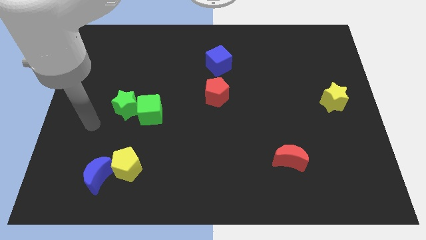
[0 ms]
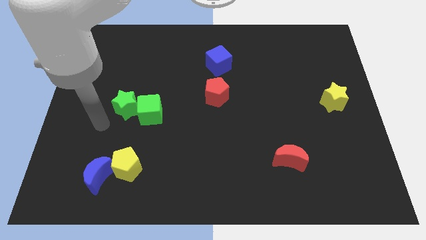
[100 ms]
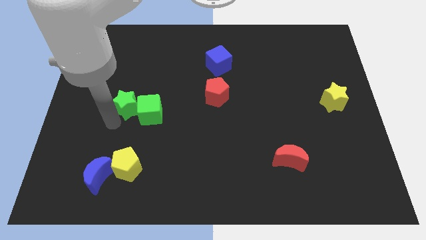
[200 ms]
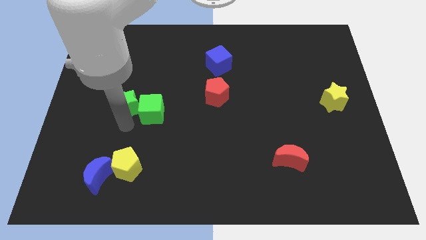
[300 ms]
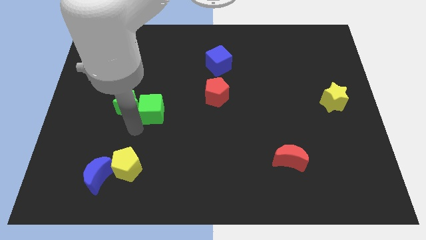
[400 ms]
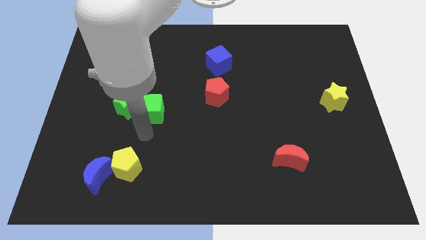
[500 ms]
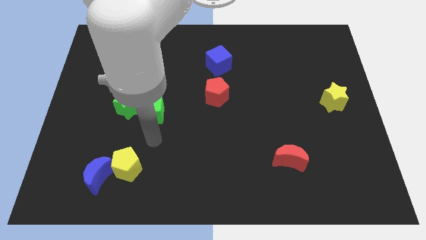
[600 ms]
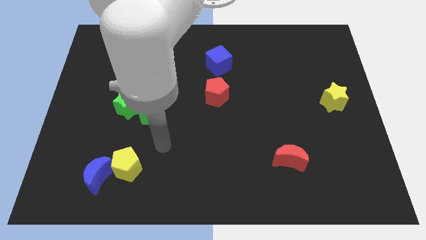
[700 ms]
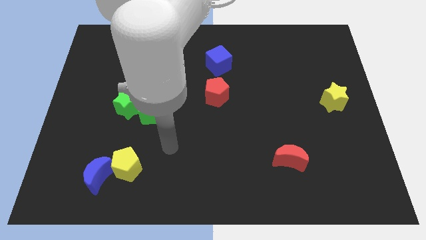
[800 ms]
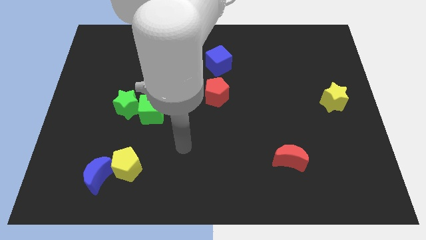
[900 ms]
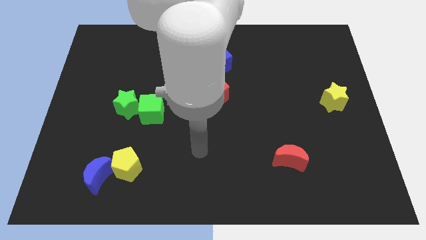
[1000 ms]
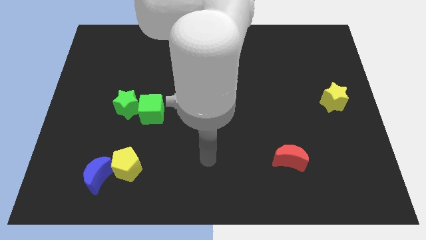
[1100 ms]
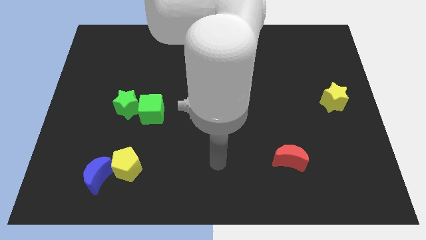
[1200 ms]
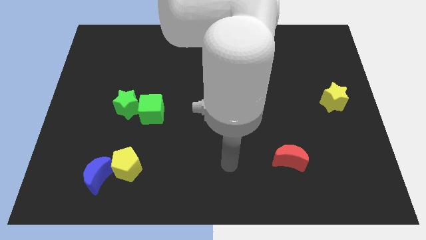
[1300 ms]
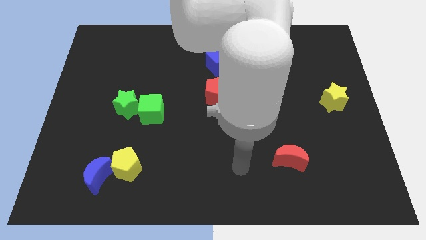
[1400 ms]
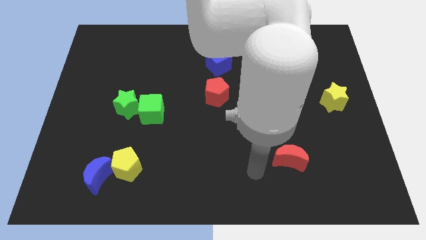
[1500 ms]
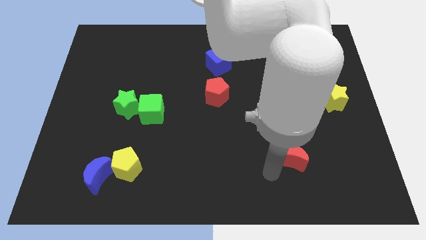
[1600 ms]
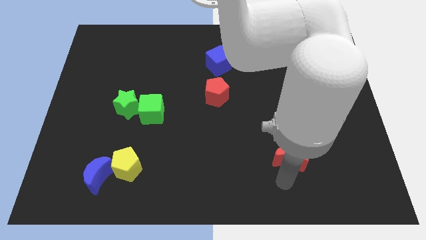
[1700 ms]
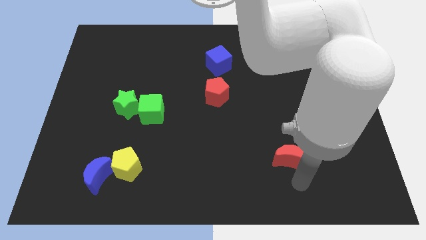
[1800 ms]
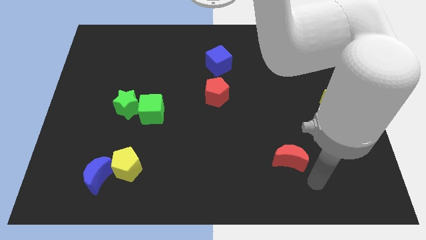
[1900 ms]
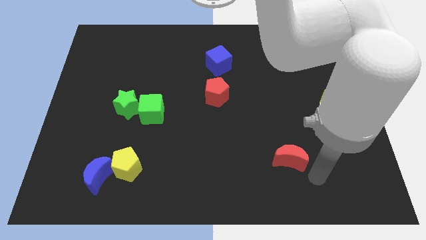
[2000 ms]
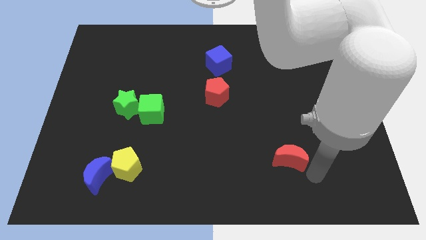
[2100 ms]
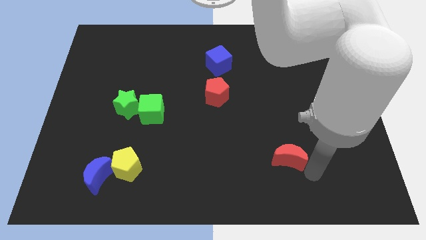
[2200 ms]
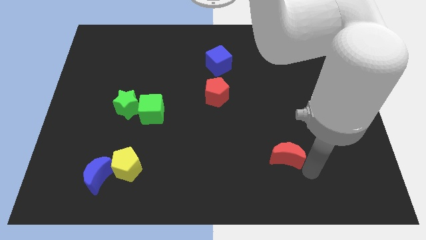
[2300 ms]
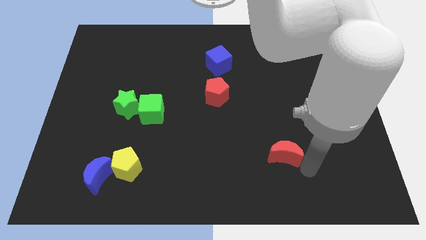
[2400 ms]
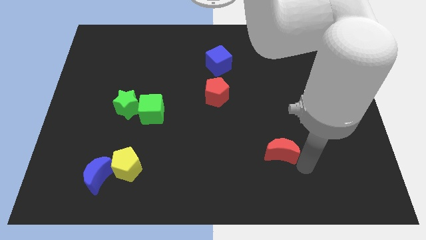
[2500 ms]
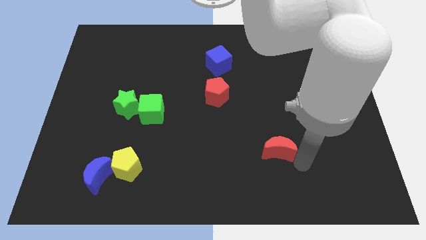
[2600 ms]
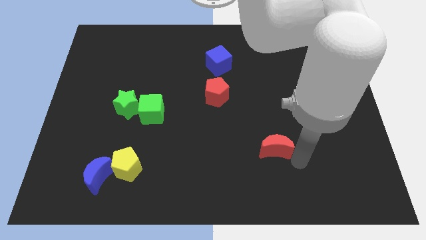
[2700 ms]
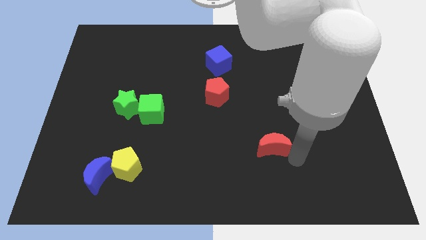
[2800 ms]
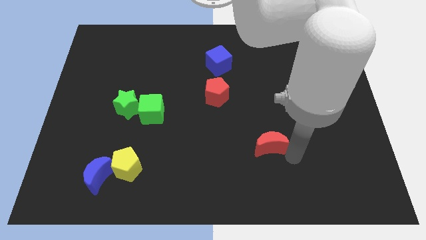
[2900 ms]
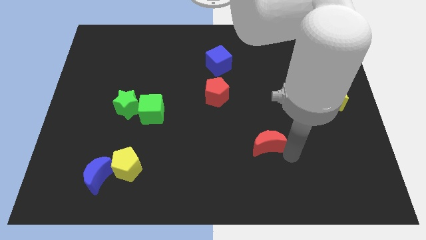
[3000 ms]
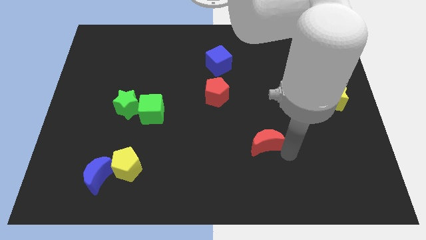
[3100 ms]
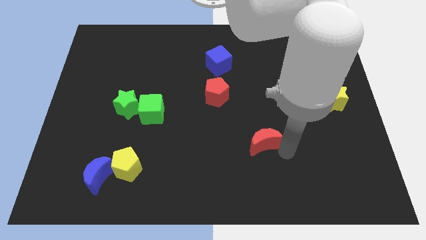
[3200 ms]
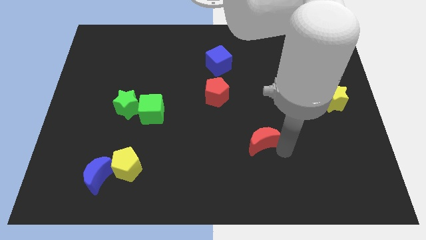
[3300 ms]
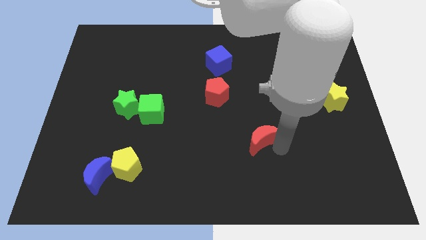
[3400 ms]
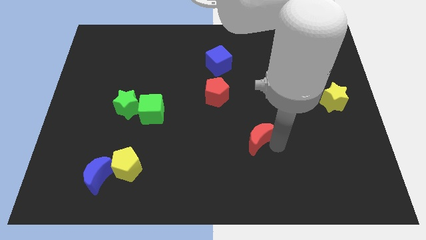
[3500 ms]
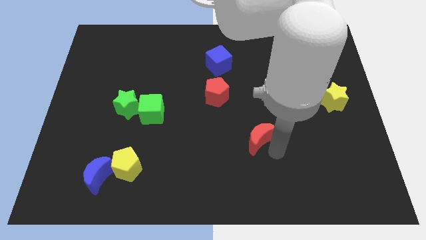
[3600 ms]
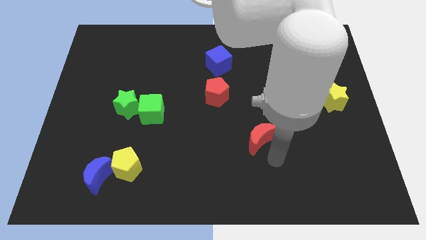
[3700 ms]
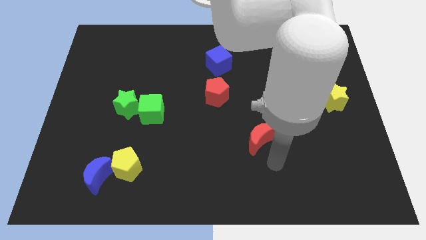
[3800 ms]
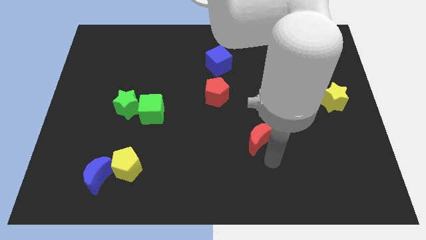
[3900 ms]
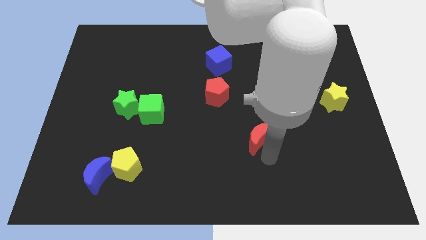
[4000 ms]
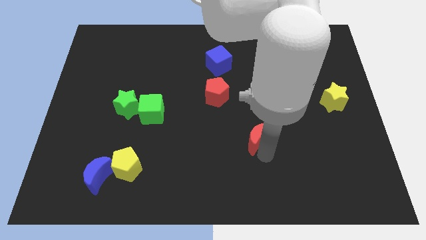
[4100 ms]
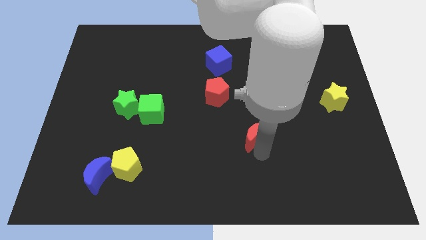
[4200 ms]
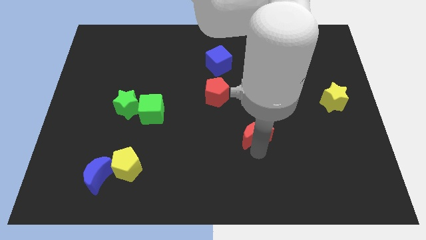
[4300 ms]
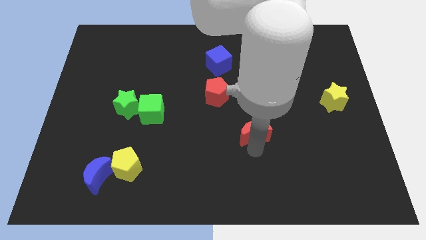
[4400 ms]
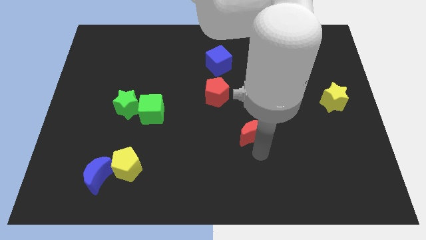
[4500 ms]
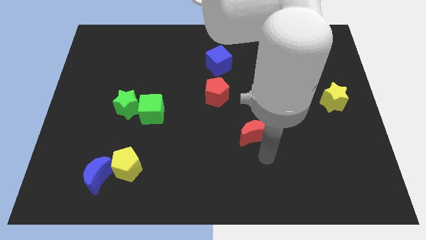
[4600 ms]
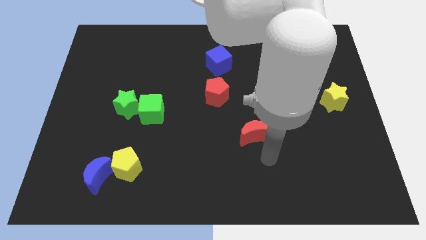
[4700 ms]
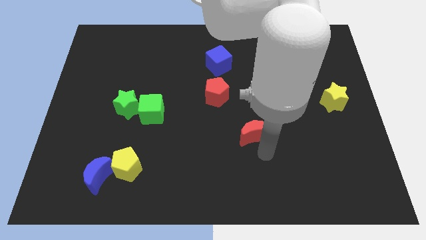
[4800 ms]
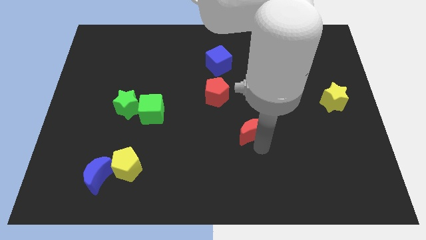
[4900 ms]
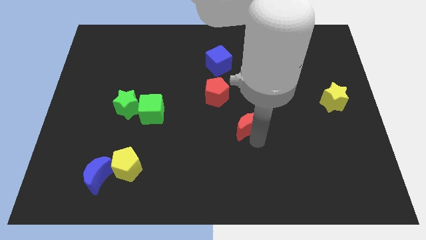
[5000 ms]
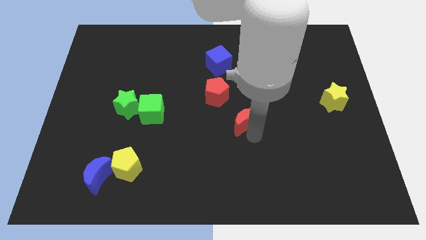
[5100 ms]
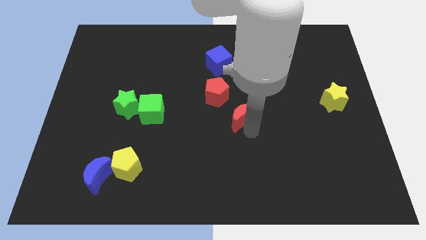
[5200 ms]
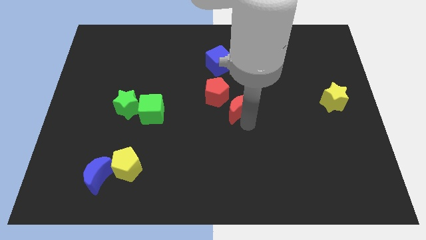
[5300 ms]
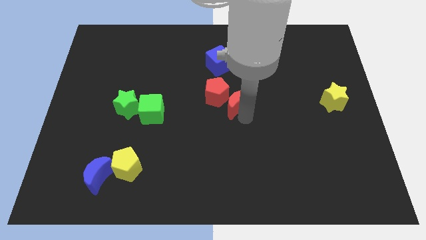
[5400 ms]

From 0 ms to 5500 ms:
move the red moon close to the red pentagon
